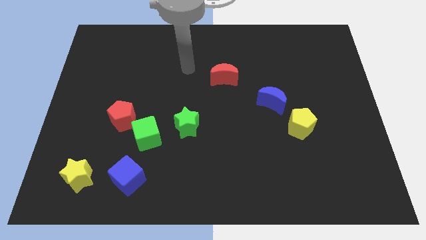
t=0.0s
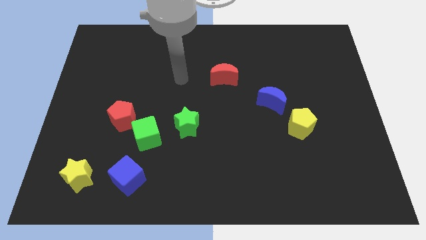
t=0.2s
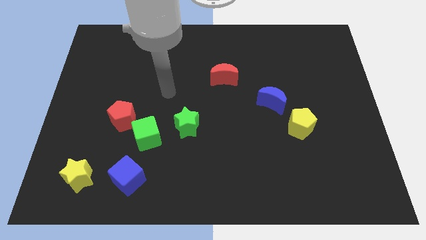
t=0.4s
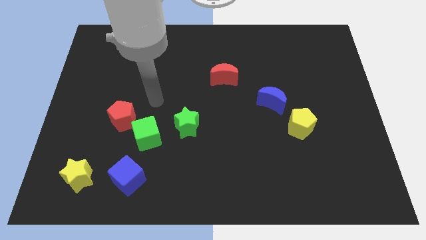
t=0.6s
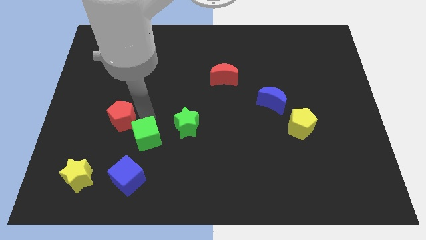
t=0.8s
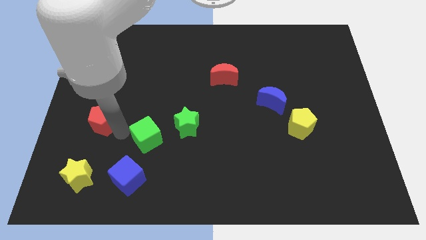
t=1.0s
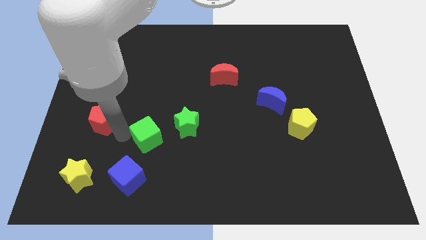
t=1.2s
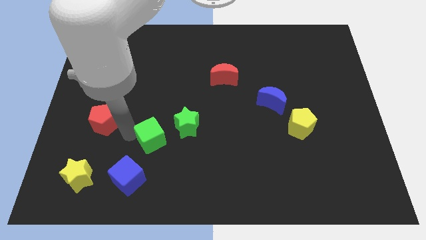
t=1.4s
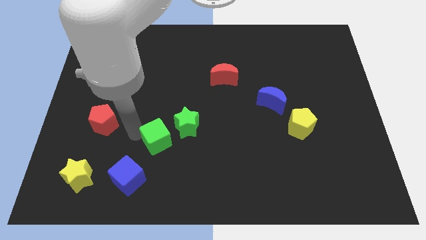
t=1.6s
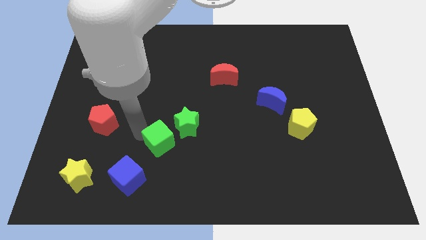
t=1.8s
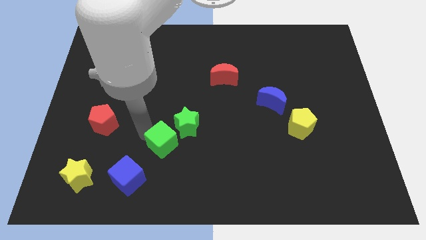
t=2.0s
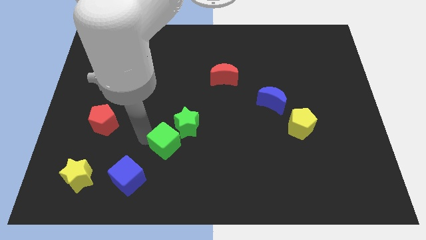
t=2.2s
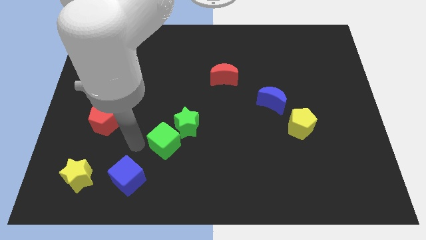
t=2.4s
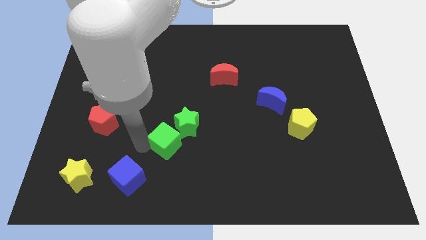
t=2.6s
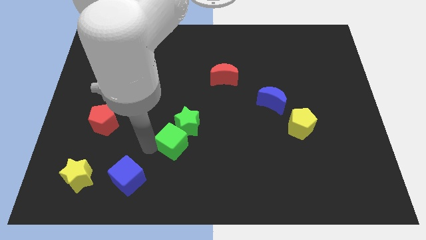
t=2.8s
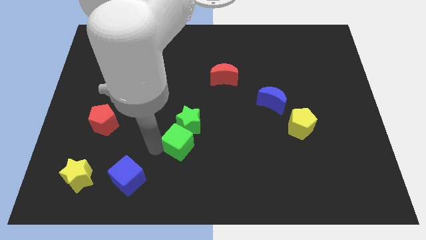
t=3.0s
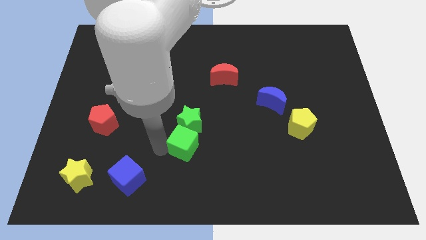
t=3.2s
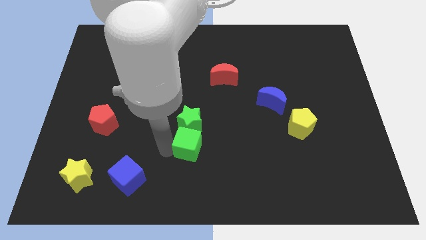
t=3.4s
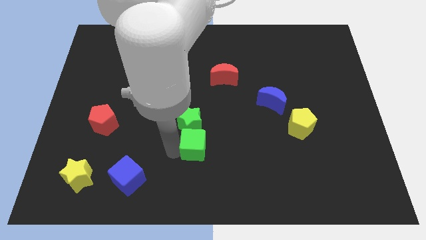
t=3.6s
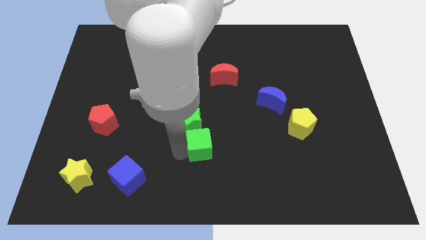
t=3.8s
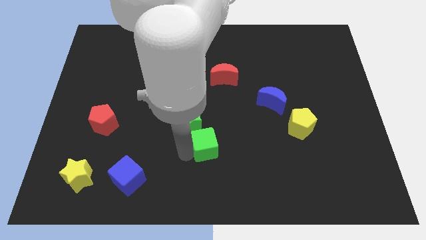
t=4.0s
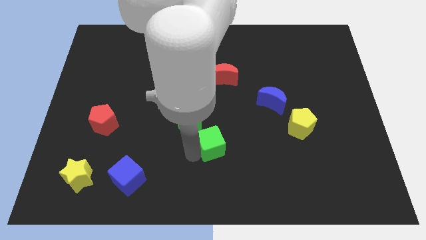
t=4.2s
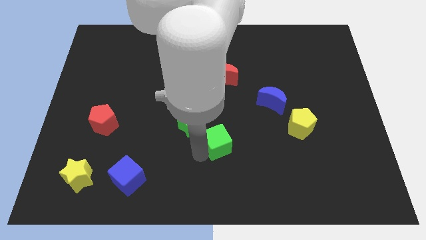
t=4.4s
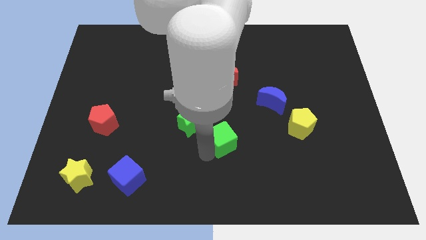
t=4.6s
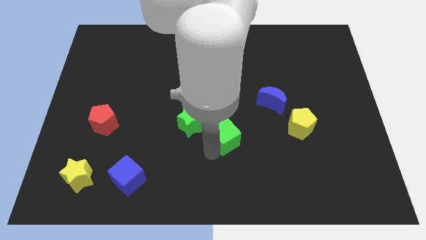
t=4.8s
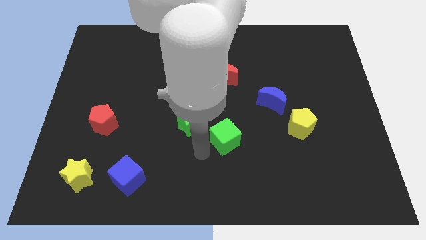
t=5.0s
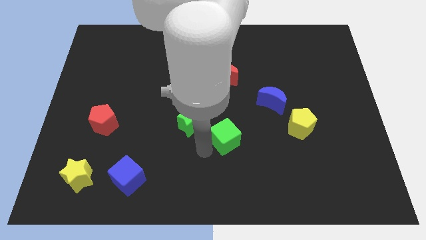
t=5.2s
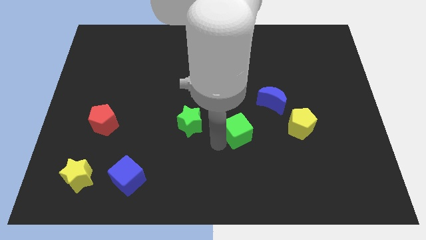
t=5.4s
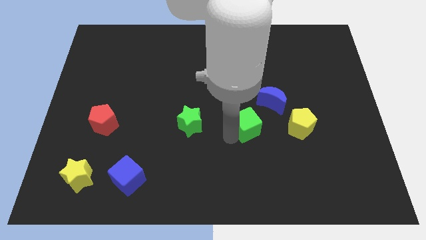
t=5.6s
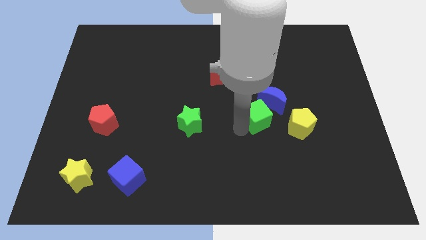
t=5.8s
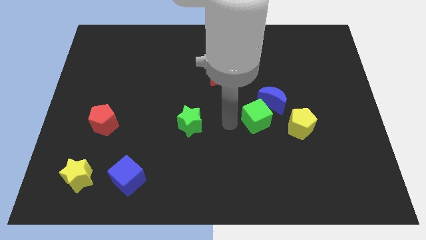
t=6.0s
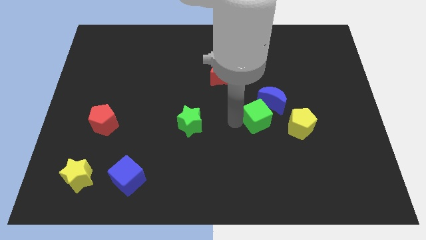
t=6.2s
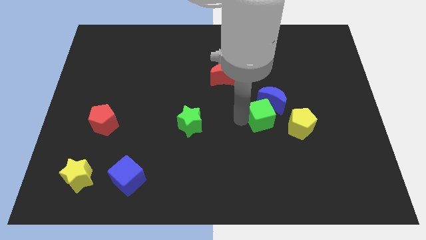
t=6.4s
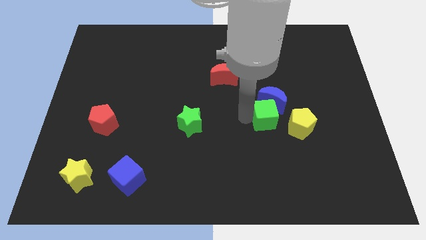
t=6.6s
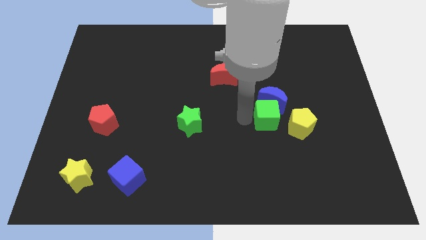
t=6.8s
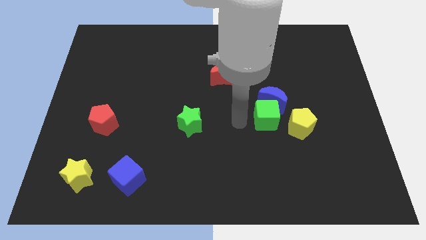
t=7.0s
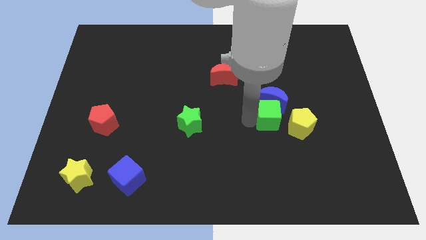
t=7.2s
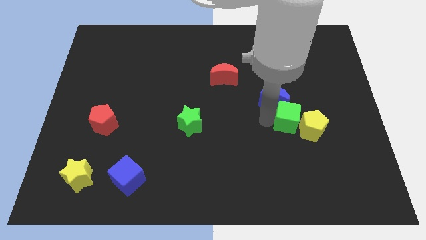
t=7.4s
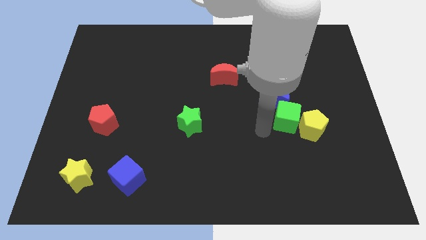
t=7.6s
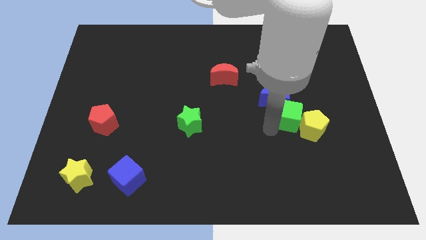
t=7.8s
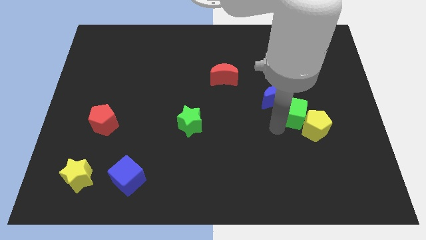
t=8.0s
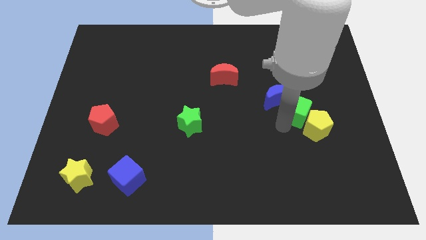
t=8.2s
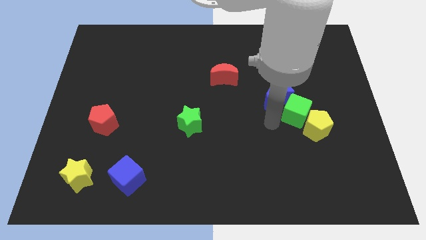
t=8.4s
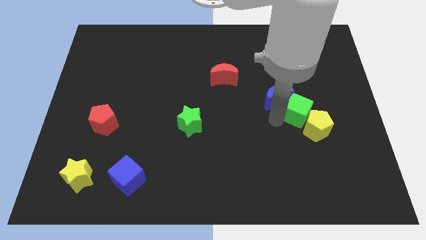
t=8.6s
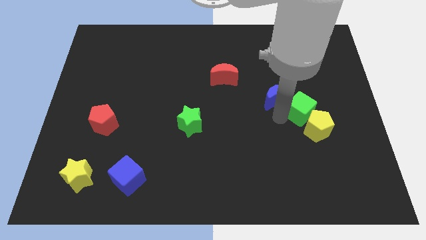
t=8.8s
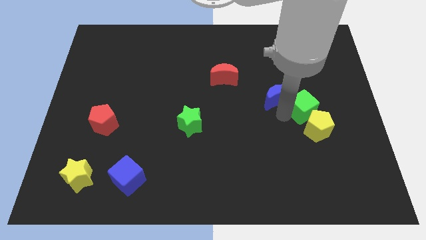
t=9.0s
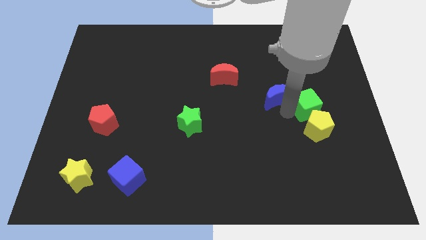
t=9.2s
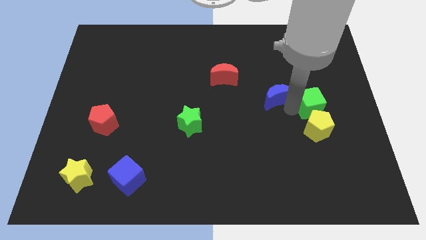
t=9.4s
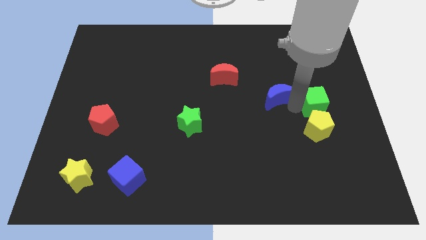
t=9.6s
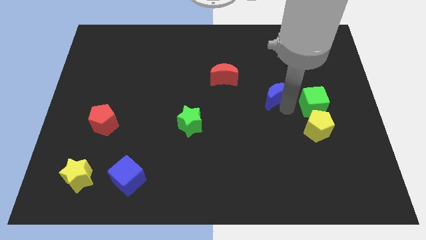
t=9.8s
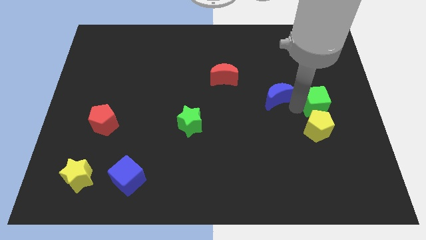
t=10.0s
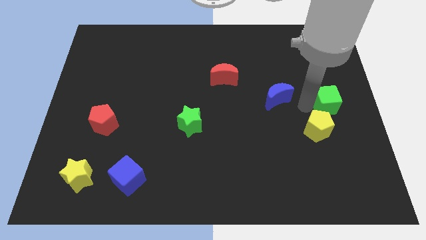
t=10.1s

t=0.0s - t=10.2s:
push the green cube to the right side of the board

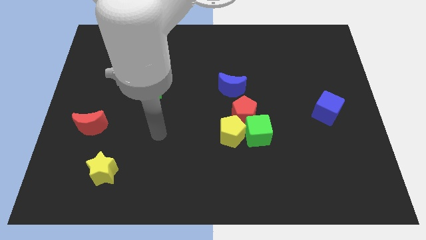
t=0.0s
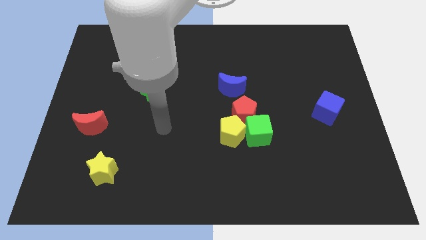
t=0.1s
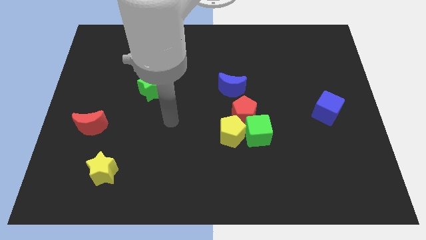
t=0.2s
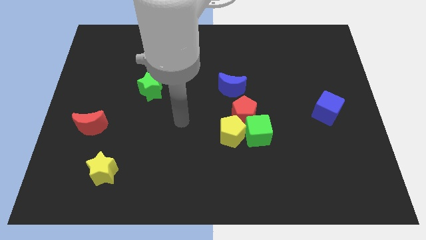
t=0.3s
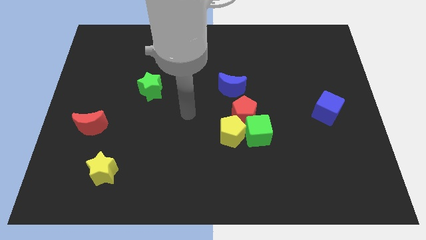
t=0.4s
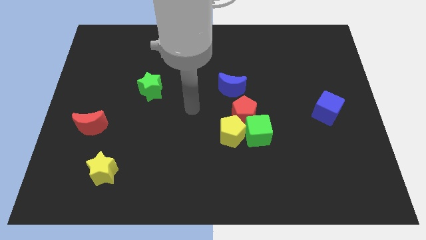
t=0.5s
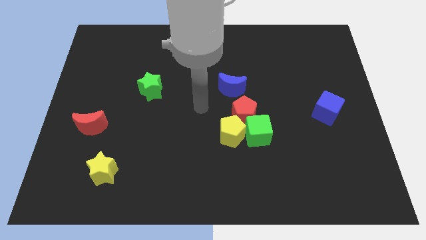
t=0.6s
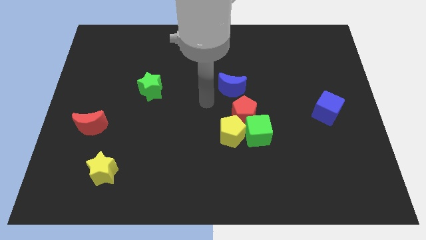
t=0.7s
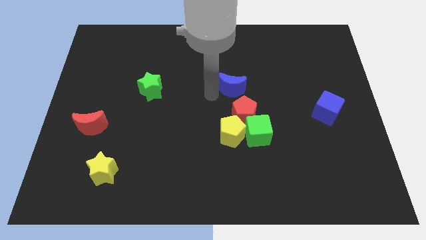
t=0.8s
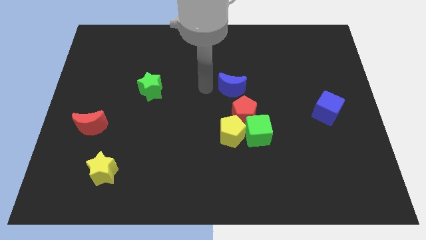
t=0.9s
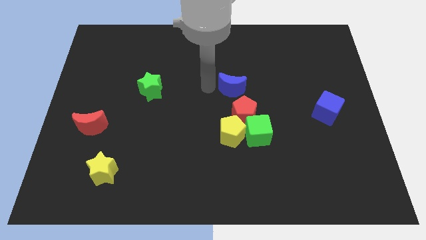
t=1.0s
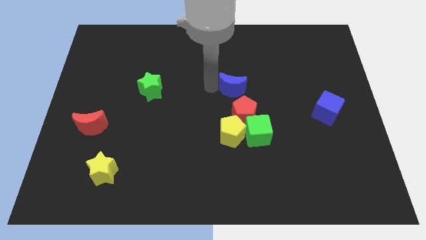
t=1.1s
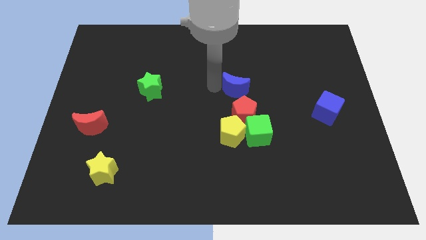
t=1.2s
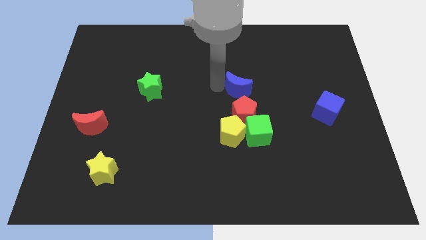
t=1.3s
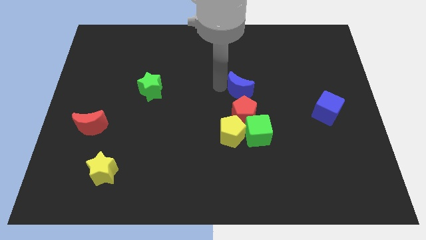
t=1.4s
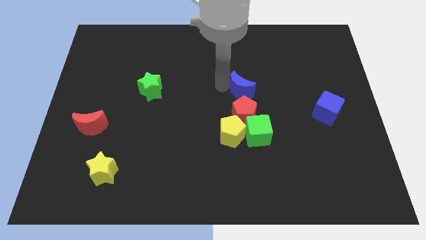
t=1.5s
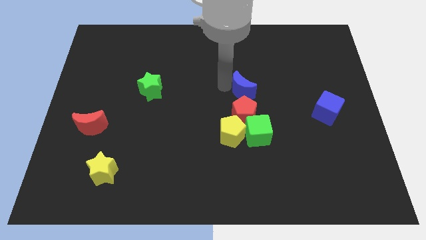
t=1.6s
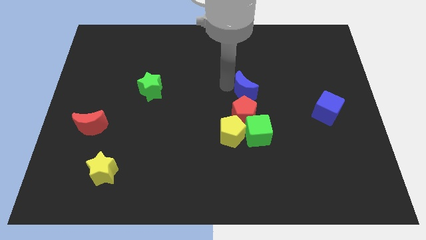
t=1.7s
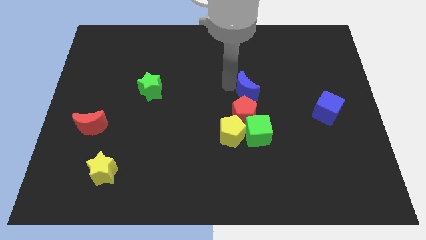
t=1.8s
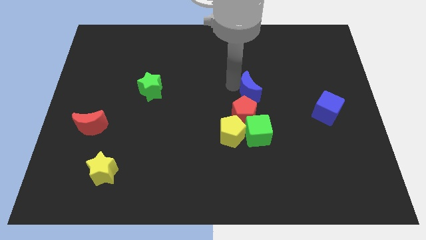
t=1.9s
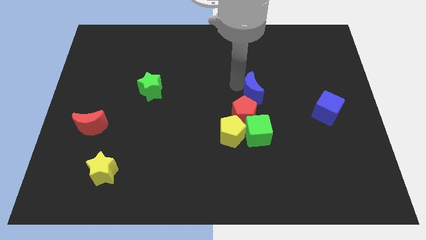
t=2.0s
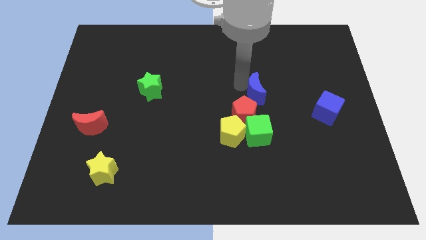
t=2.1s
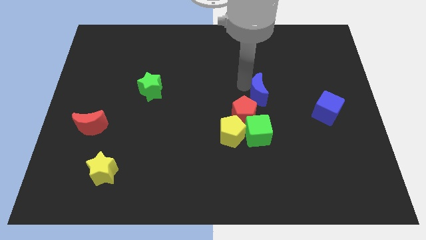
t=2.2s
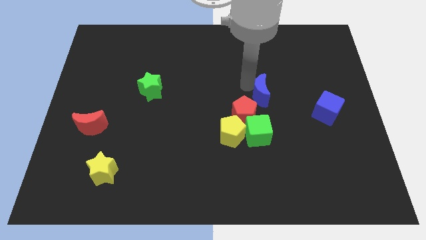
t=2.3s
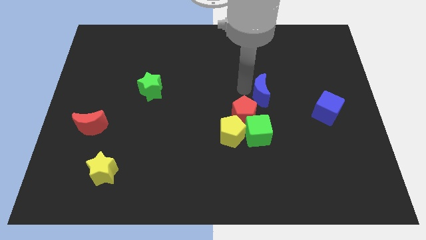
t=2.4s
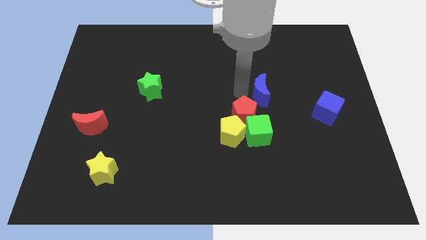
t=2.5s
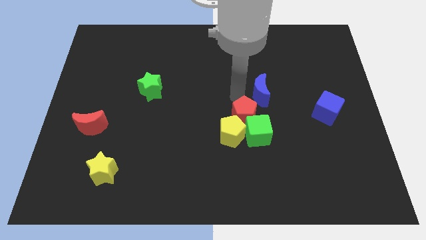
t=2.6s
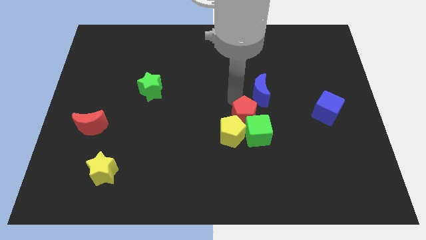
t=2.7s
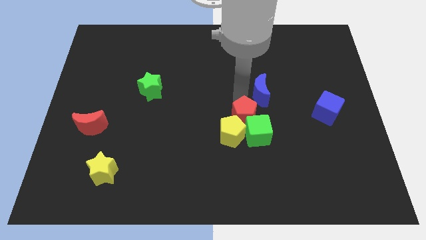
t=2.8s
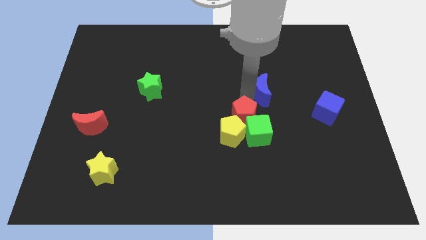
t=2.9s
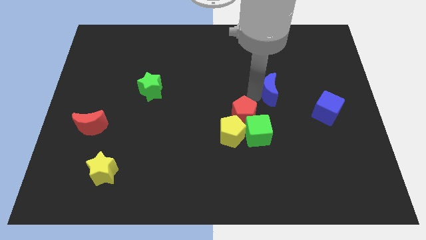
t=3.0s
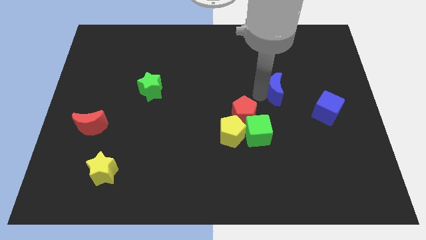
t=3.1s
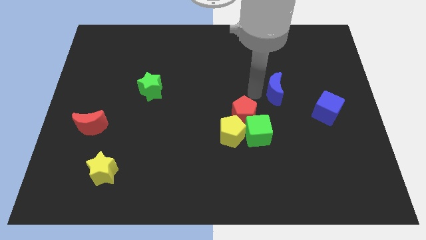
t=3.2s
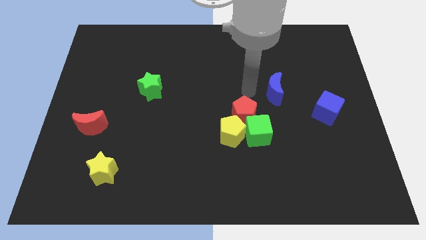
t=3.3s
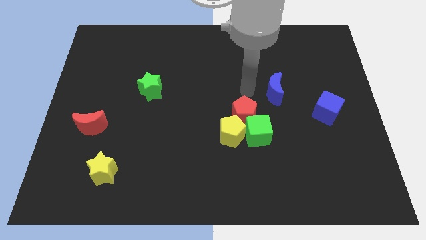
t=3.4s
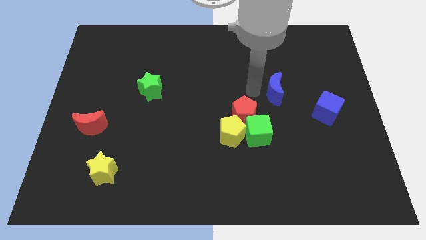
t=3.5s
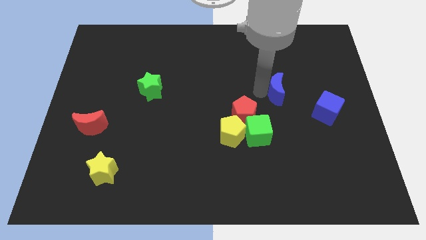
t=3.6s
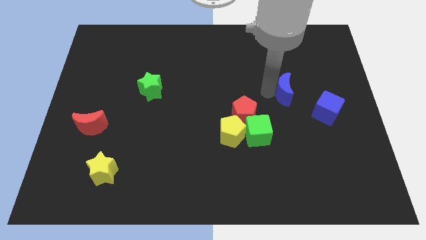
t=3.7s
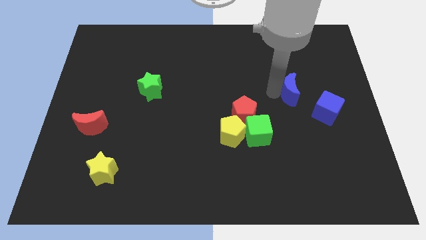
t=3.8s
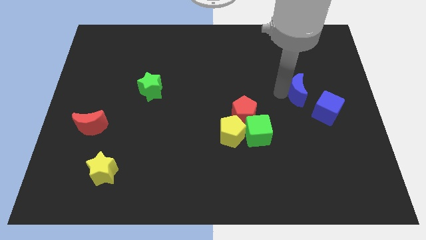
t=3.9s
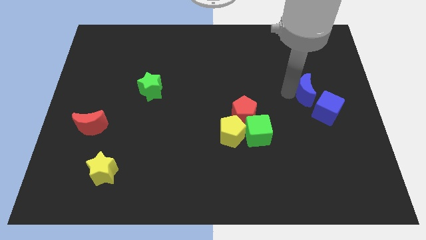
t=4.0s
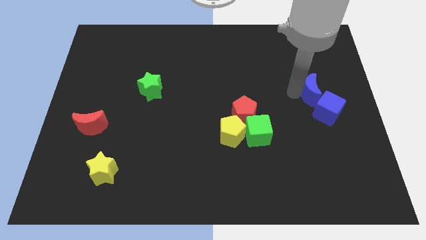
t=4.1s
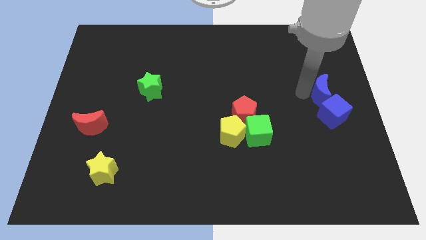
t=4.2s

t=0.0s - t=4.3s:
push the blue moon to the right side of the board
